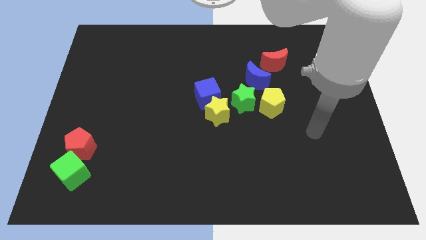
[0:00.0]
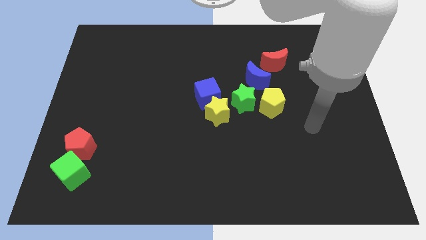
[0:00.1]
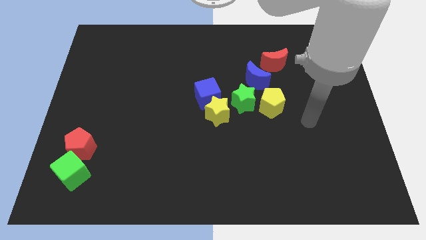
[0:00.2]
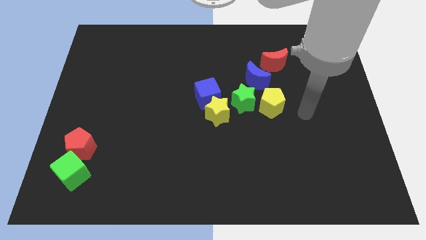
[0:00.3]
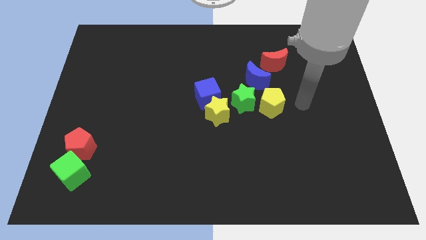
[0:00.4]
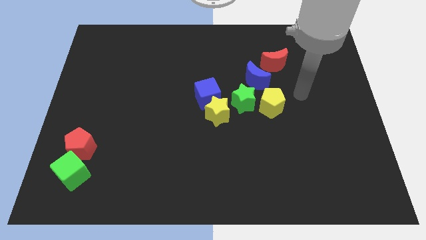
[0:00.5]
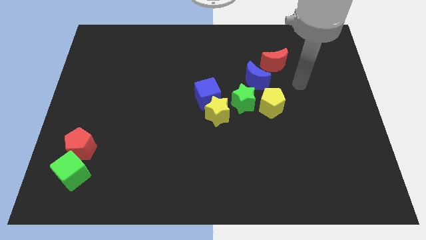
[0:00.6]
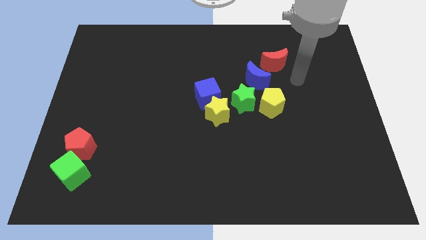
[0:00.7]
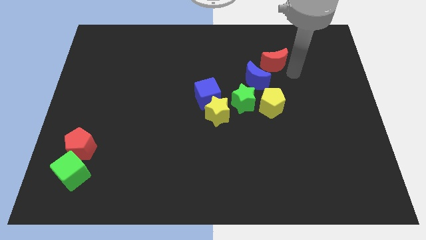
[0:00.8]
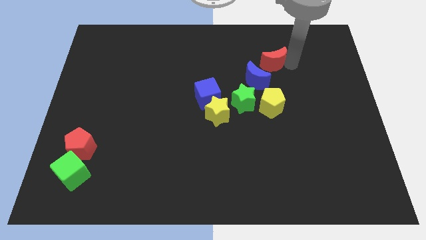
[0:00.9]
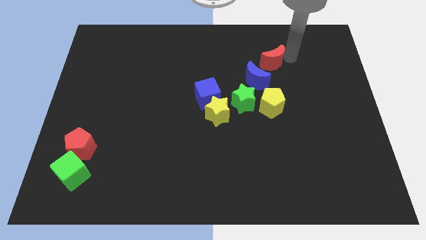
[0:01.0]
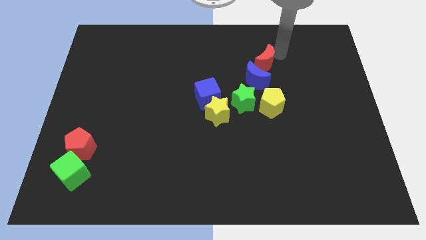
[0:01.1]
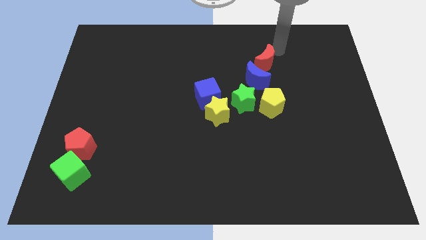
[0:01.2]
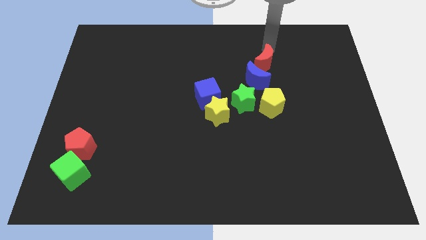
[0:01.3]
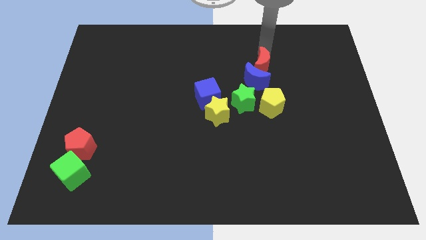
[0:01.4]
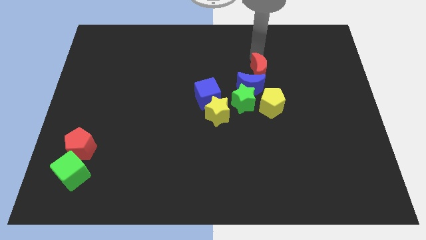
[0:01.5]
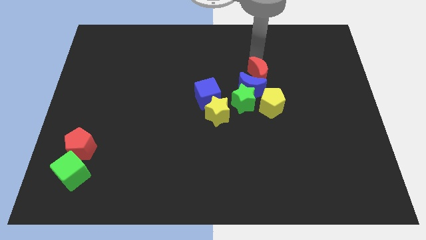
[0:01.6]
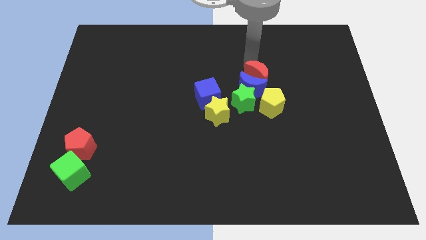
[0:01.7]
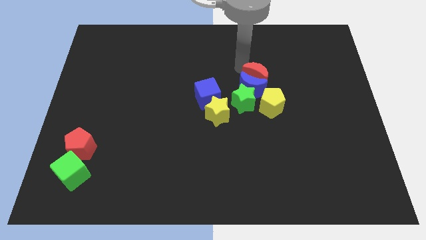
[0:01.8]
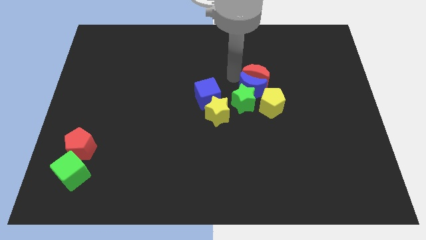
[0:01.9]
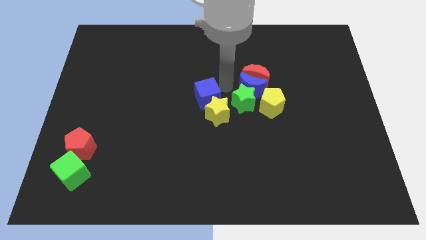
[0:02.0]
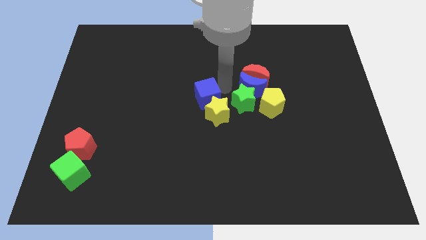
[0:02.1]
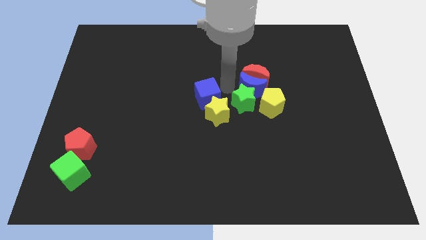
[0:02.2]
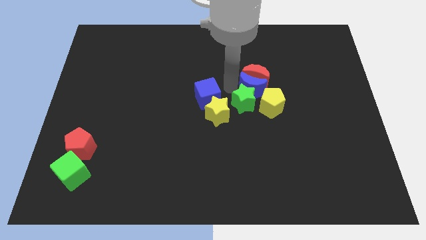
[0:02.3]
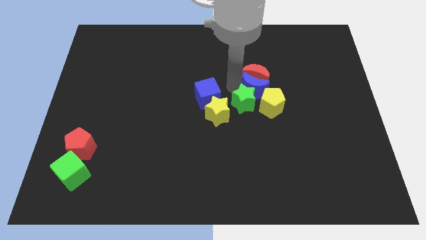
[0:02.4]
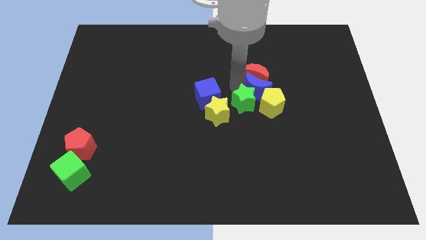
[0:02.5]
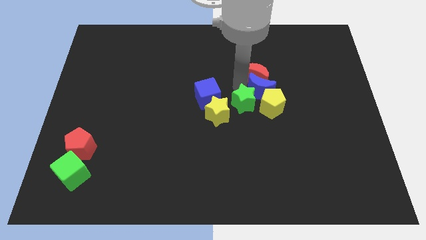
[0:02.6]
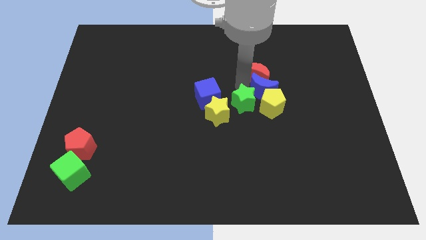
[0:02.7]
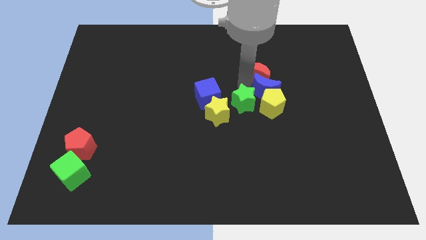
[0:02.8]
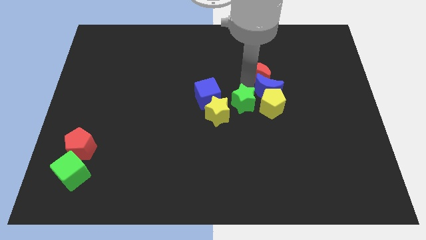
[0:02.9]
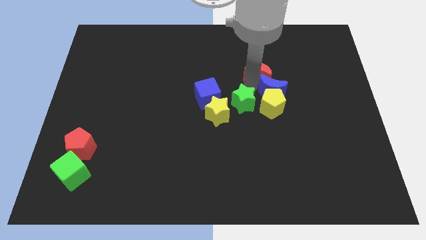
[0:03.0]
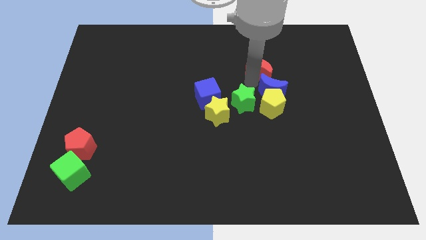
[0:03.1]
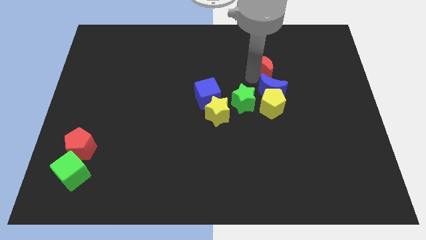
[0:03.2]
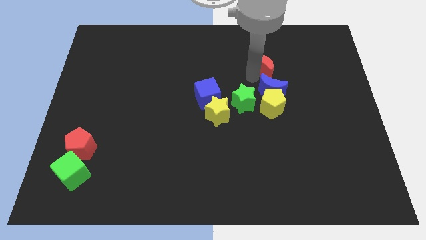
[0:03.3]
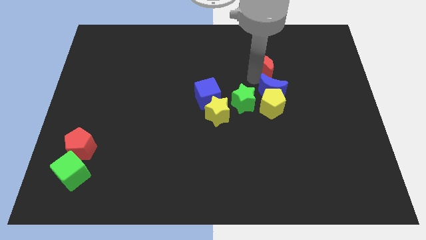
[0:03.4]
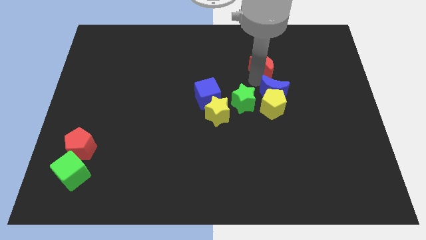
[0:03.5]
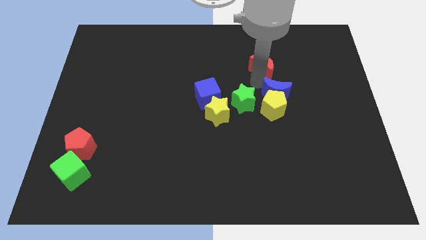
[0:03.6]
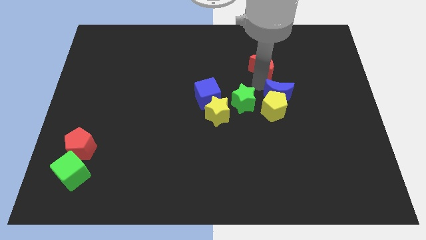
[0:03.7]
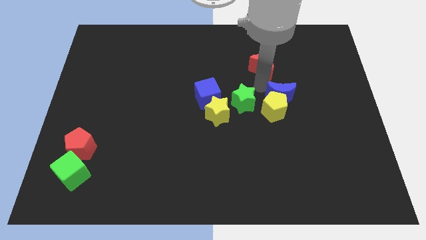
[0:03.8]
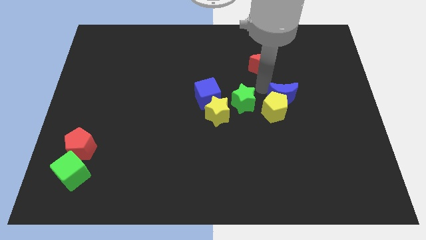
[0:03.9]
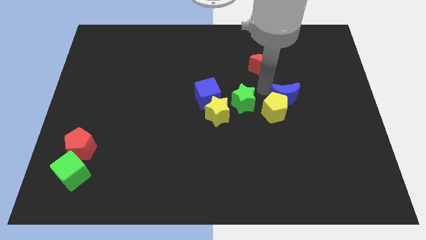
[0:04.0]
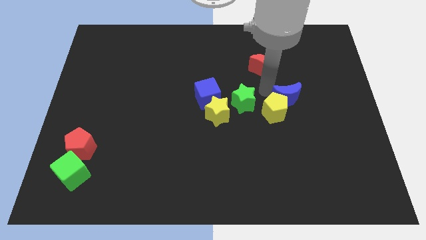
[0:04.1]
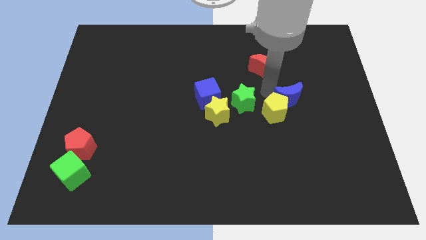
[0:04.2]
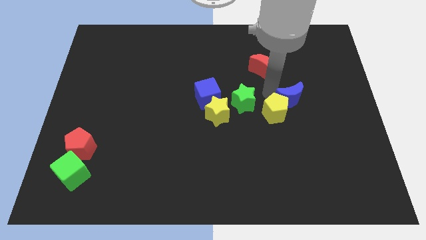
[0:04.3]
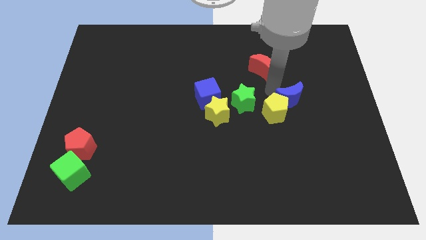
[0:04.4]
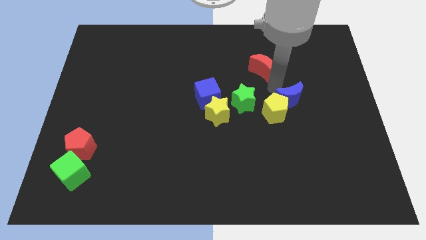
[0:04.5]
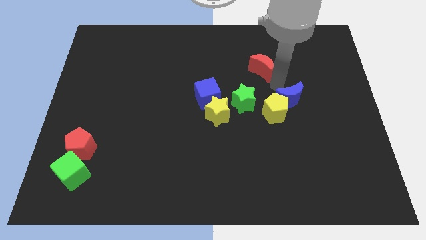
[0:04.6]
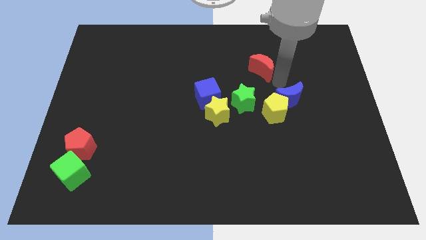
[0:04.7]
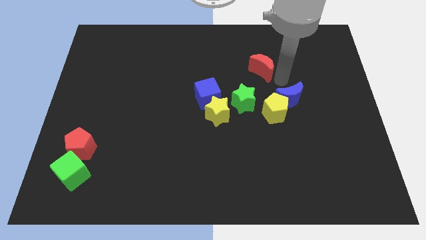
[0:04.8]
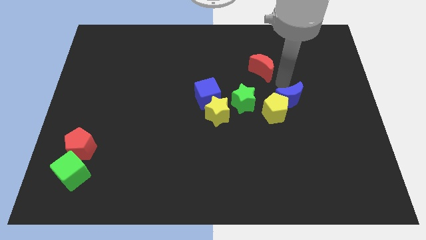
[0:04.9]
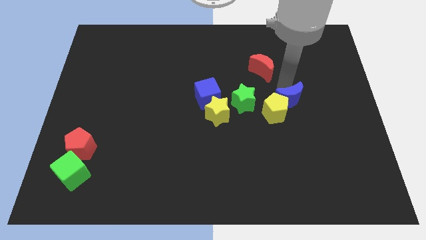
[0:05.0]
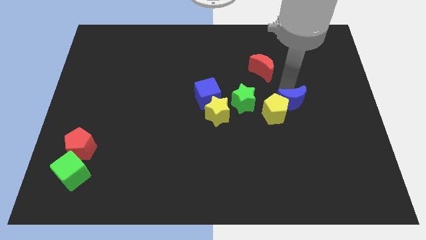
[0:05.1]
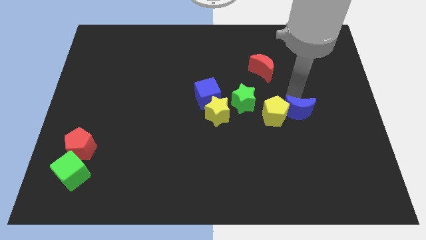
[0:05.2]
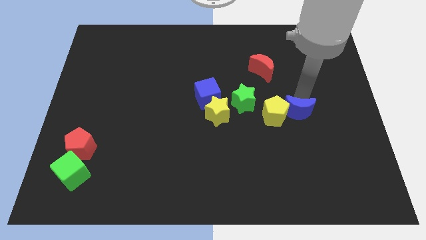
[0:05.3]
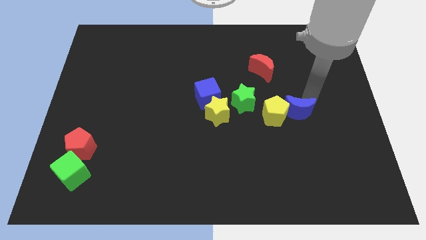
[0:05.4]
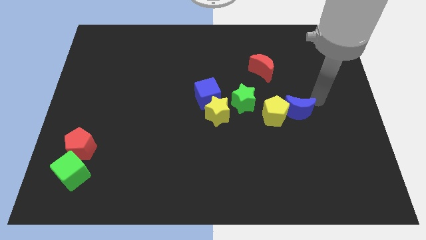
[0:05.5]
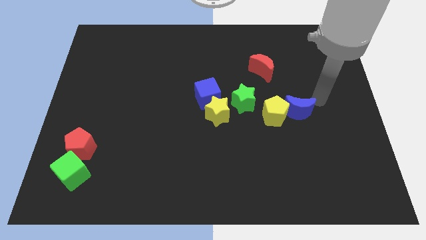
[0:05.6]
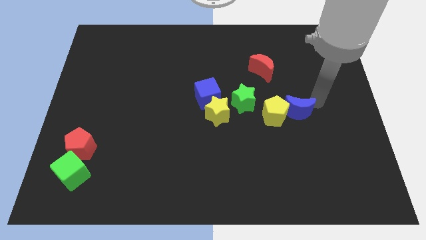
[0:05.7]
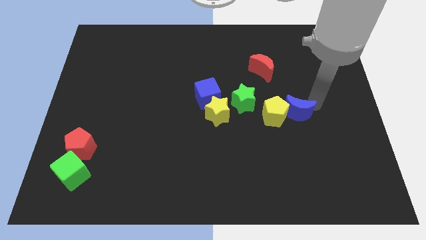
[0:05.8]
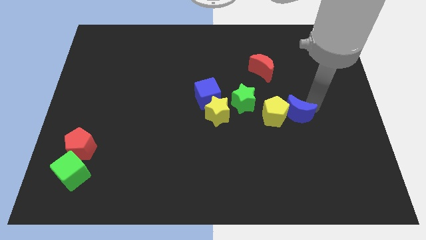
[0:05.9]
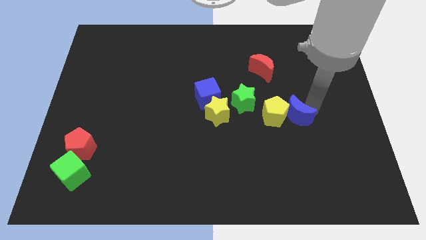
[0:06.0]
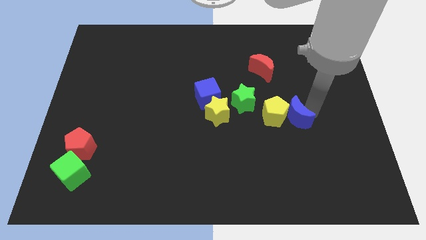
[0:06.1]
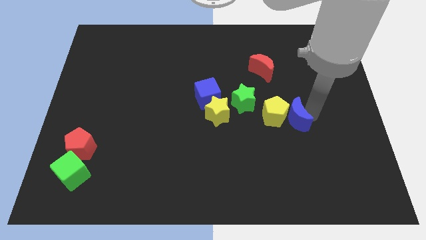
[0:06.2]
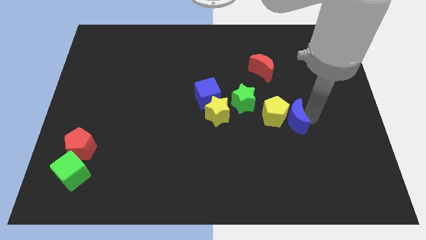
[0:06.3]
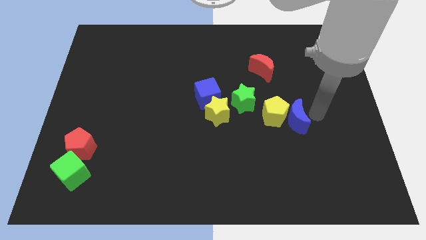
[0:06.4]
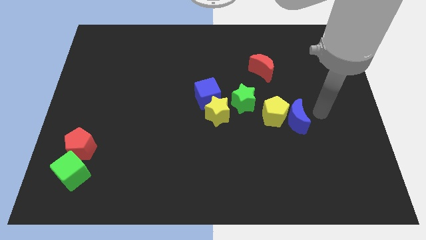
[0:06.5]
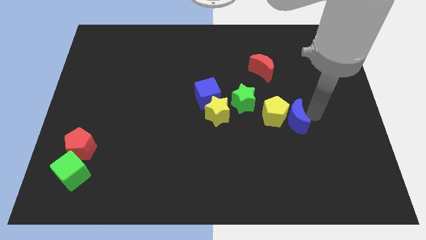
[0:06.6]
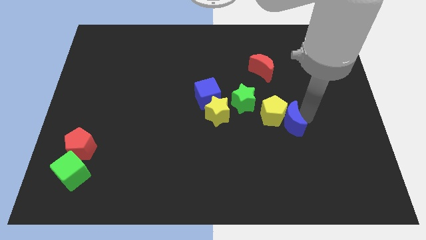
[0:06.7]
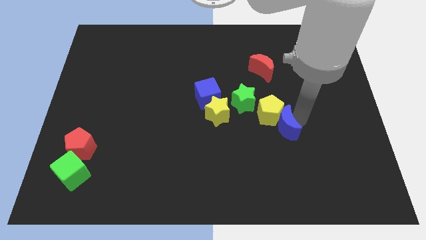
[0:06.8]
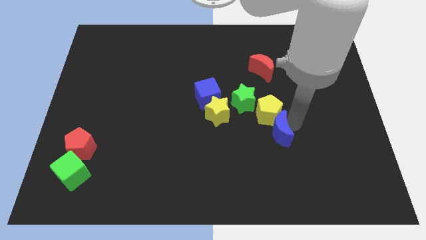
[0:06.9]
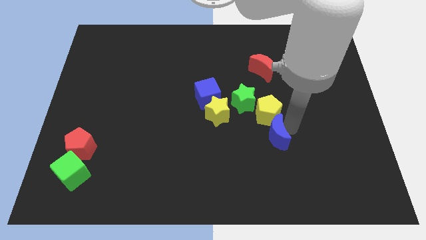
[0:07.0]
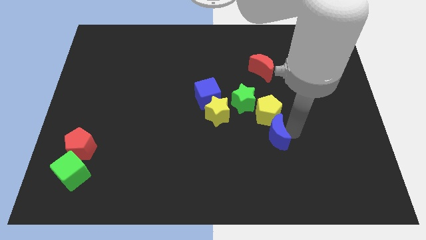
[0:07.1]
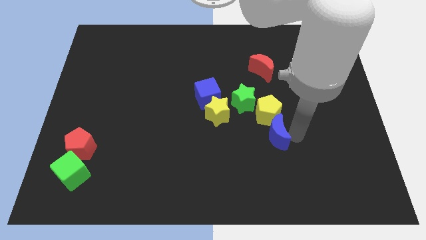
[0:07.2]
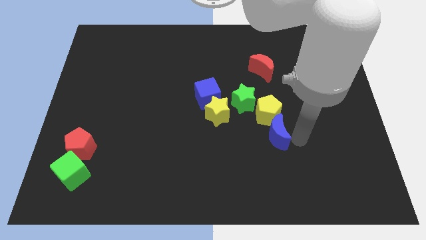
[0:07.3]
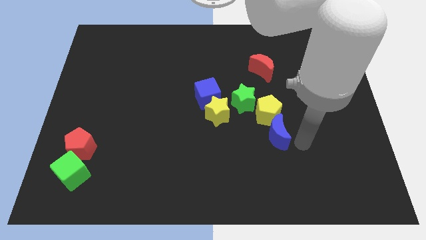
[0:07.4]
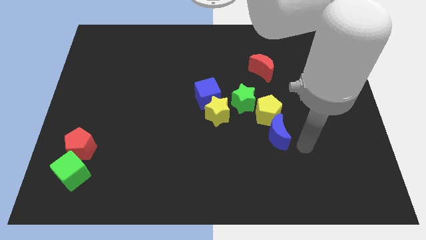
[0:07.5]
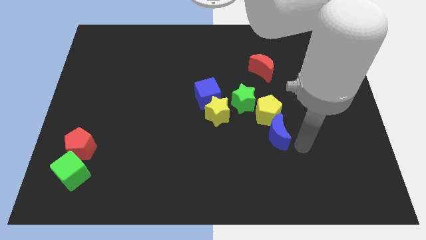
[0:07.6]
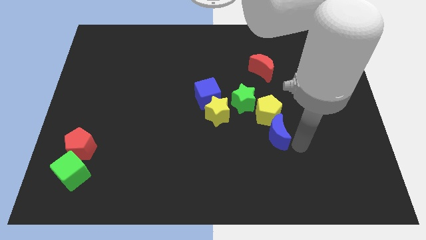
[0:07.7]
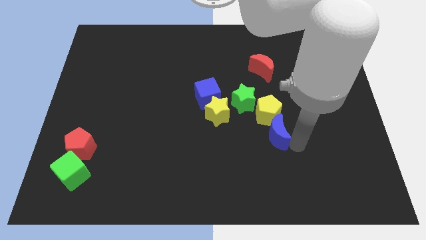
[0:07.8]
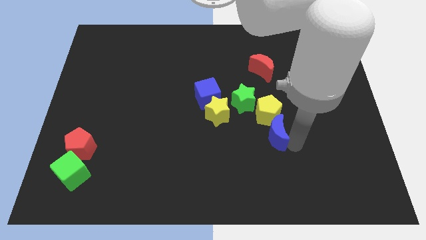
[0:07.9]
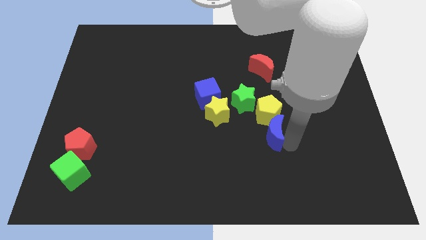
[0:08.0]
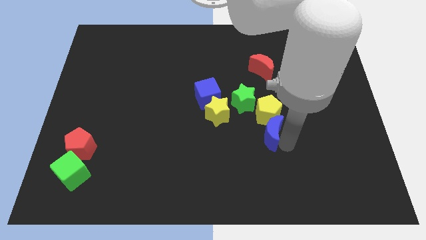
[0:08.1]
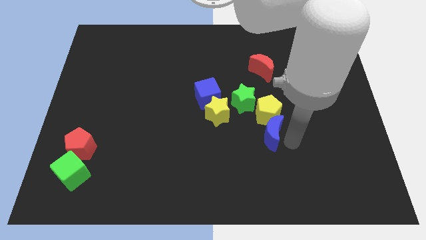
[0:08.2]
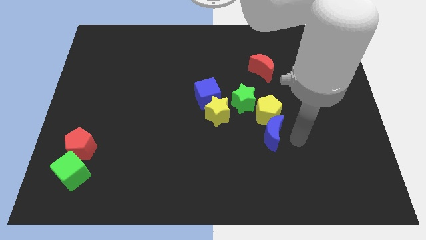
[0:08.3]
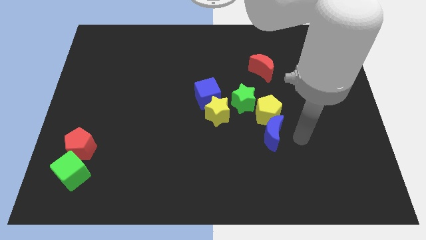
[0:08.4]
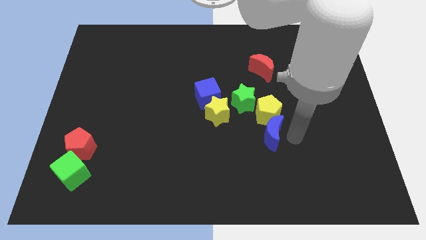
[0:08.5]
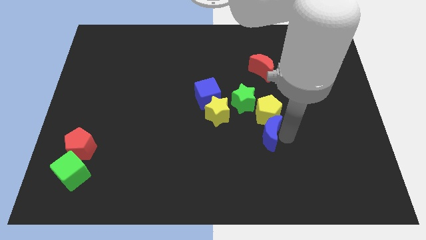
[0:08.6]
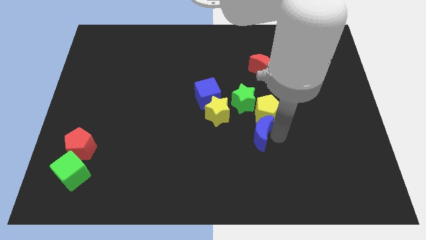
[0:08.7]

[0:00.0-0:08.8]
slide the blue moon diagonally down and to the right of the yellow star
